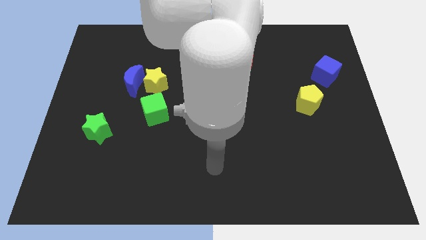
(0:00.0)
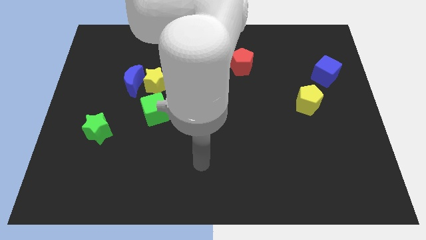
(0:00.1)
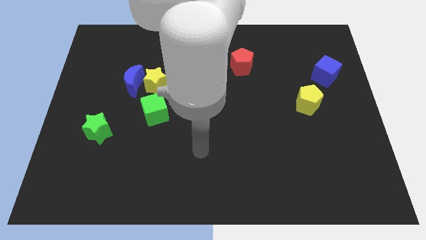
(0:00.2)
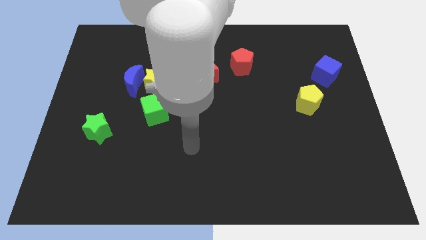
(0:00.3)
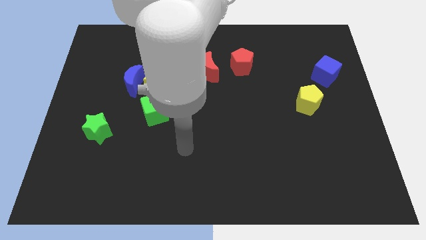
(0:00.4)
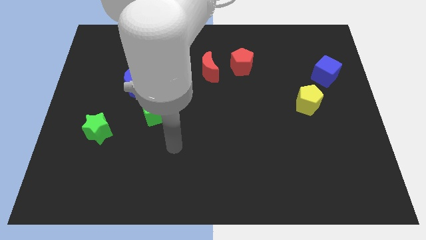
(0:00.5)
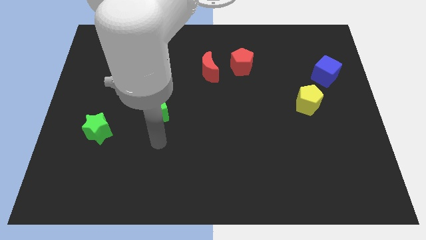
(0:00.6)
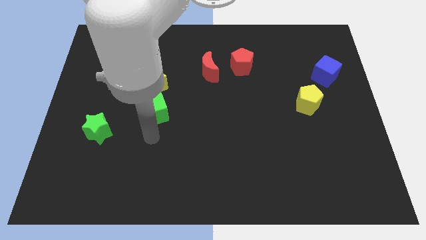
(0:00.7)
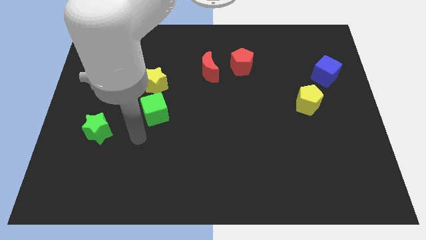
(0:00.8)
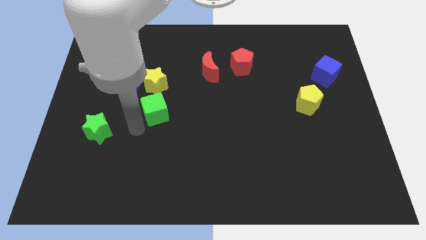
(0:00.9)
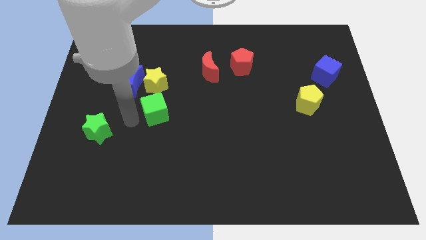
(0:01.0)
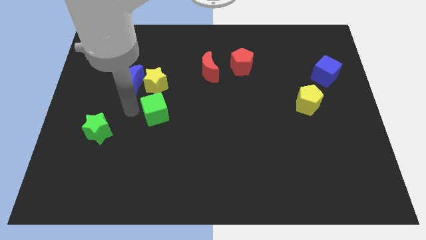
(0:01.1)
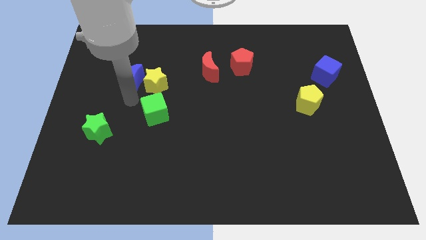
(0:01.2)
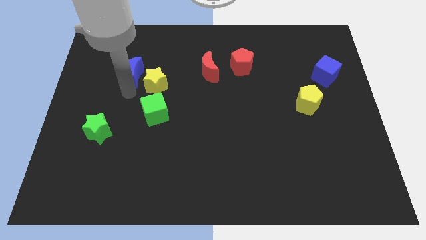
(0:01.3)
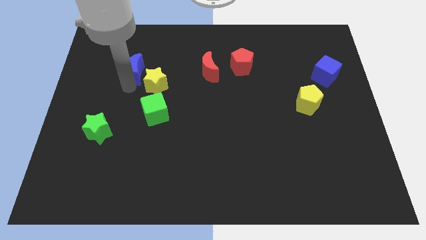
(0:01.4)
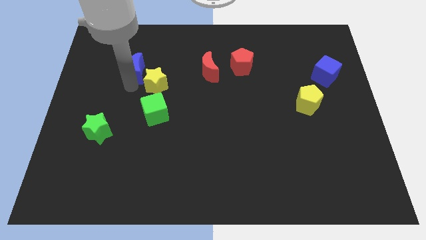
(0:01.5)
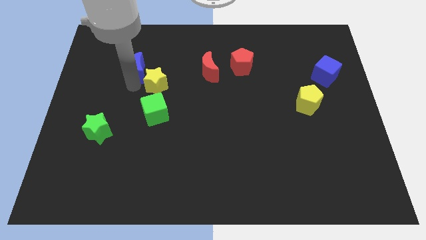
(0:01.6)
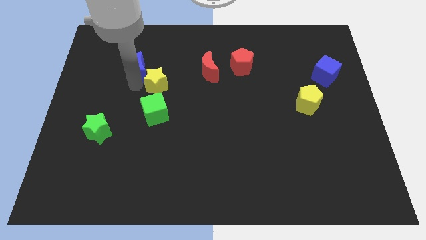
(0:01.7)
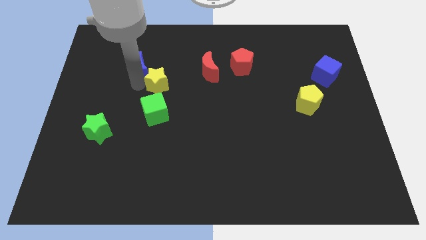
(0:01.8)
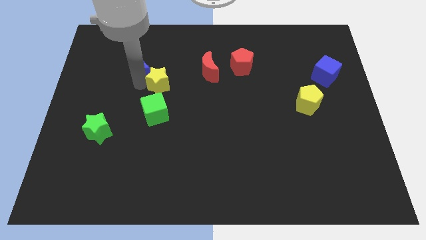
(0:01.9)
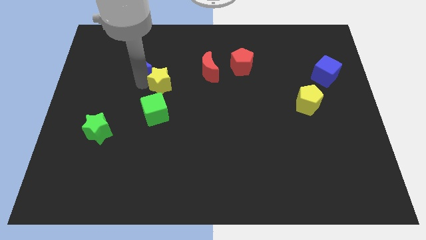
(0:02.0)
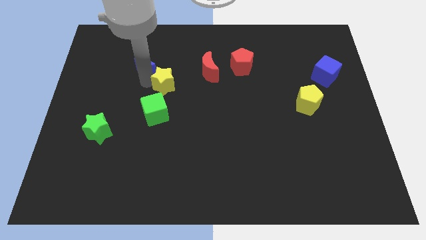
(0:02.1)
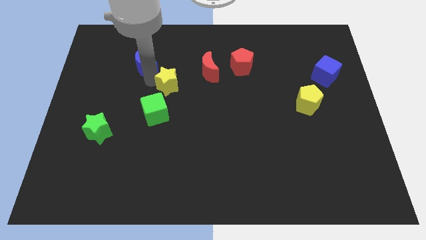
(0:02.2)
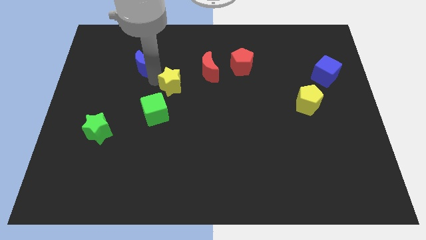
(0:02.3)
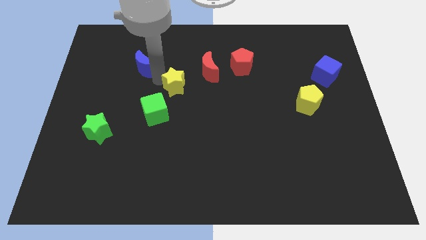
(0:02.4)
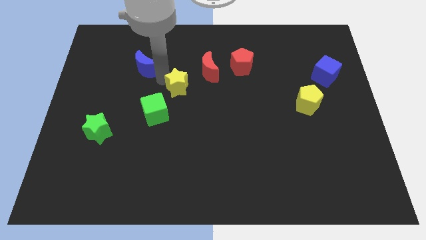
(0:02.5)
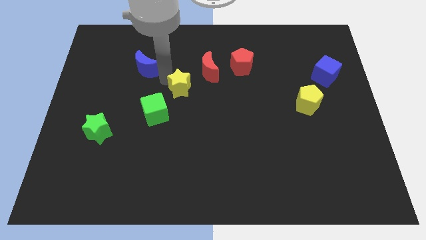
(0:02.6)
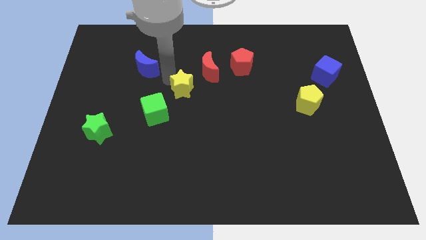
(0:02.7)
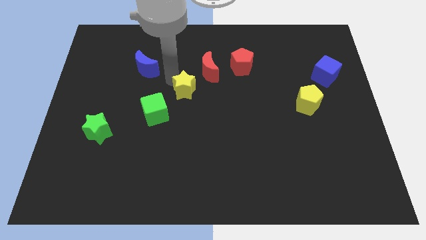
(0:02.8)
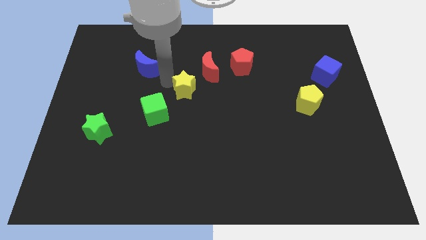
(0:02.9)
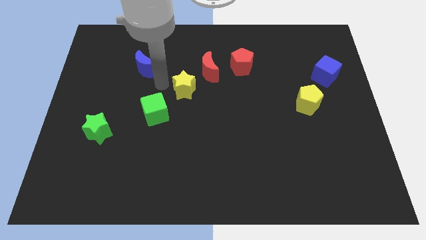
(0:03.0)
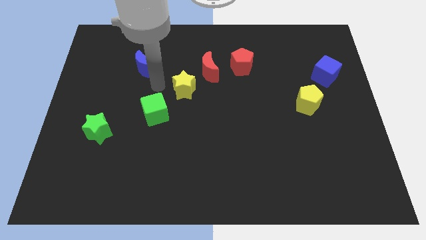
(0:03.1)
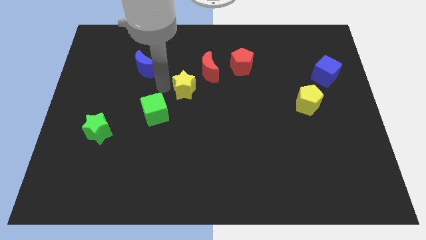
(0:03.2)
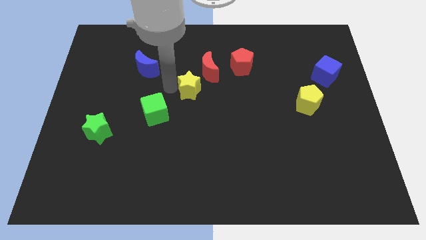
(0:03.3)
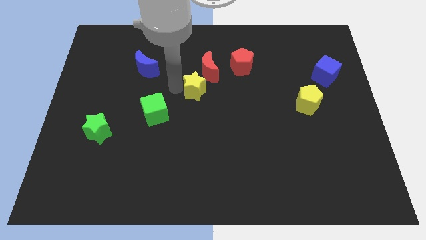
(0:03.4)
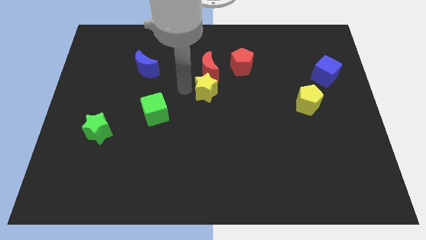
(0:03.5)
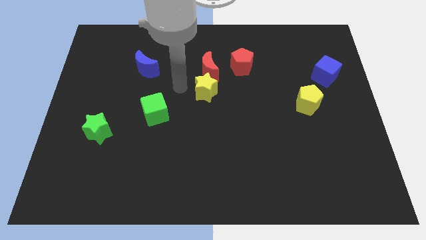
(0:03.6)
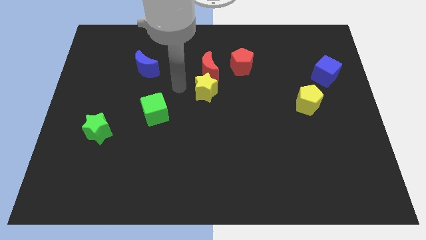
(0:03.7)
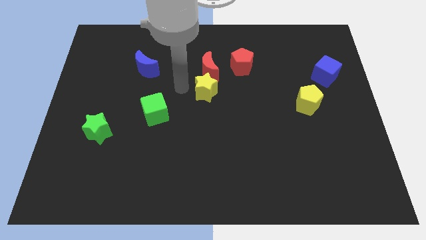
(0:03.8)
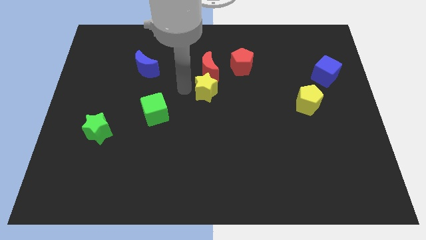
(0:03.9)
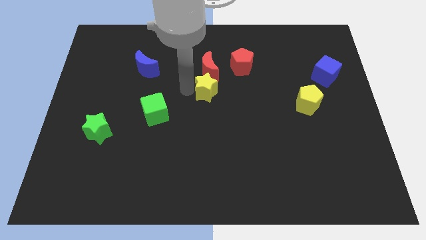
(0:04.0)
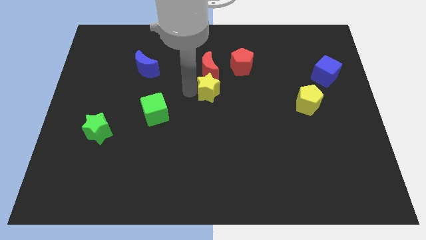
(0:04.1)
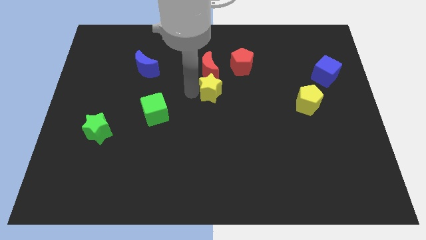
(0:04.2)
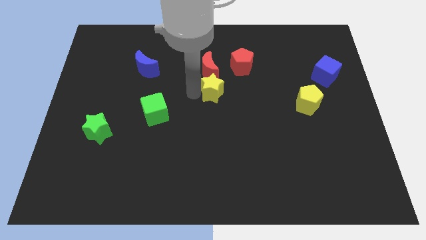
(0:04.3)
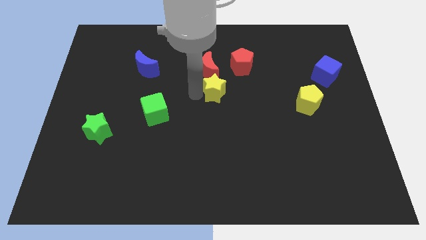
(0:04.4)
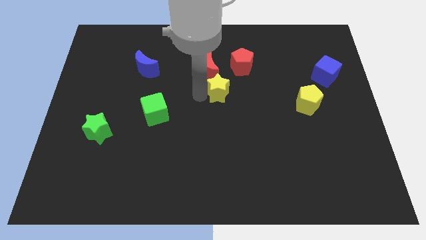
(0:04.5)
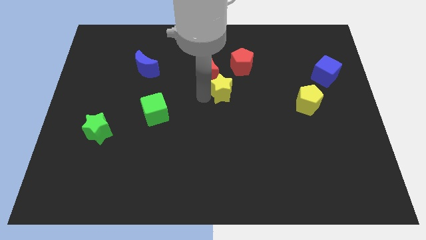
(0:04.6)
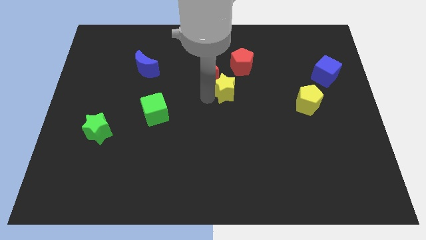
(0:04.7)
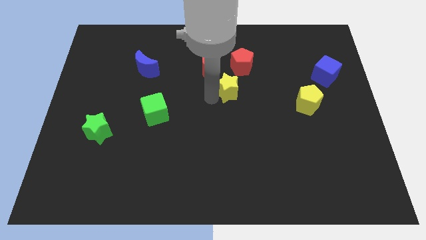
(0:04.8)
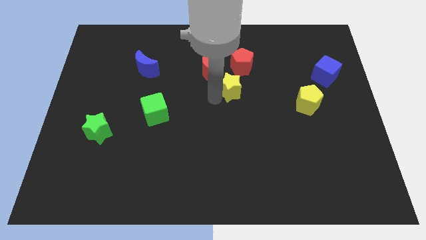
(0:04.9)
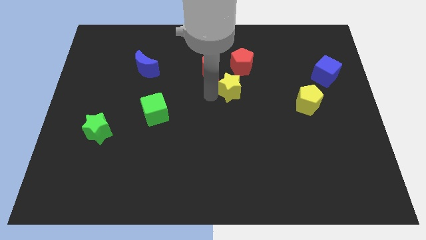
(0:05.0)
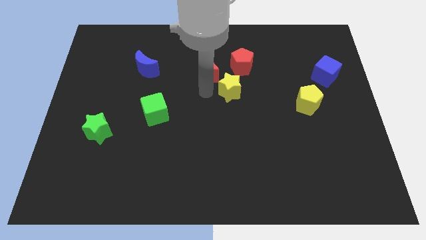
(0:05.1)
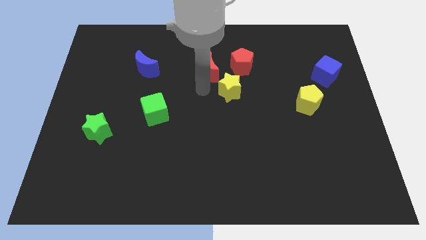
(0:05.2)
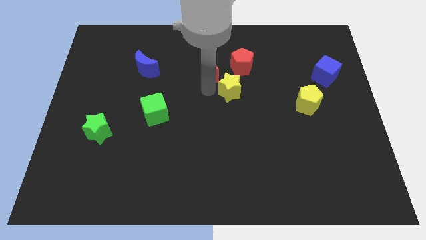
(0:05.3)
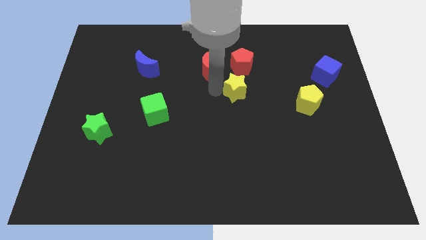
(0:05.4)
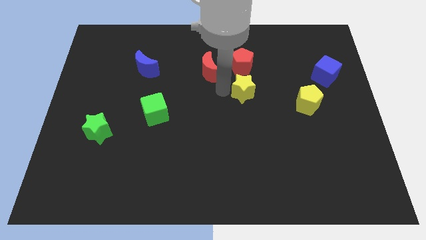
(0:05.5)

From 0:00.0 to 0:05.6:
move the yellow star right

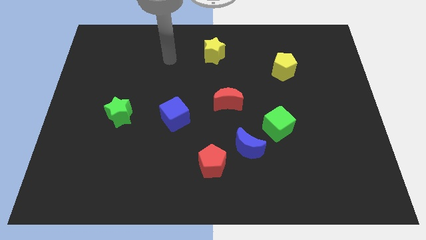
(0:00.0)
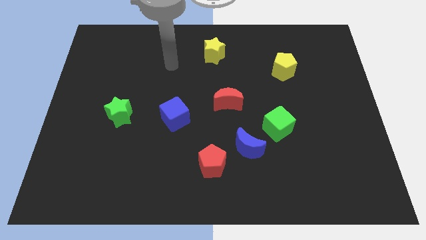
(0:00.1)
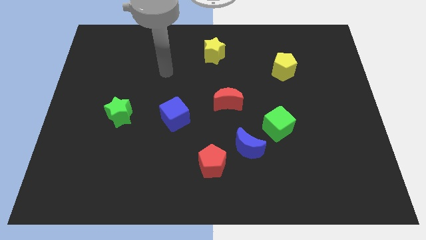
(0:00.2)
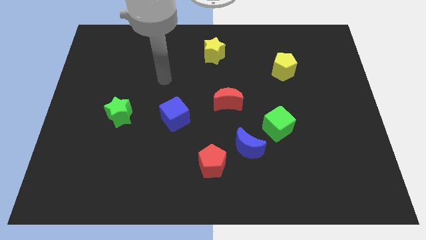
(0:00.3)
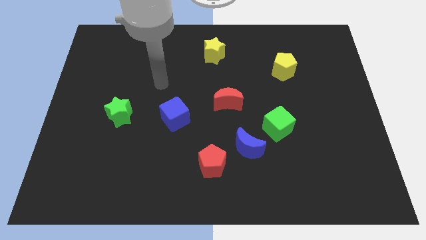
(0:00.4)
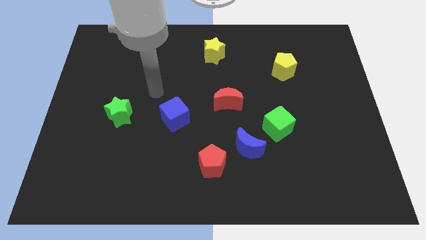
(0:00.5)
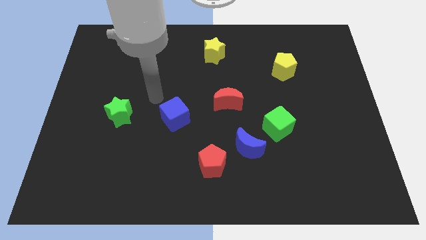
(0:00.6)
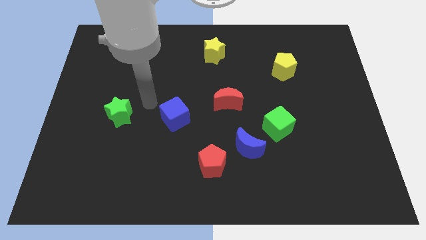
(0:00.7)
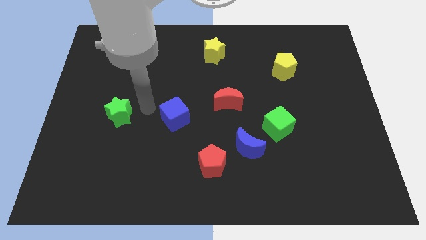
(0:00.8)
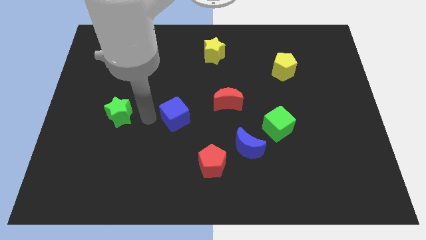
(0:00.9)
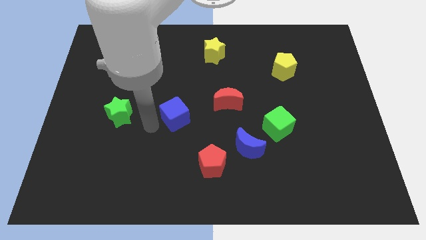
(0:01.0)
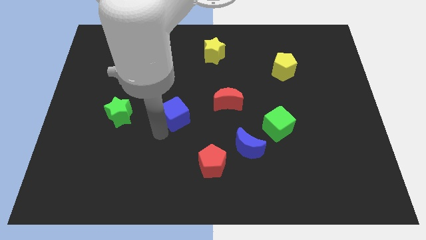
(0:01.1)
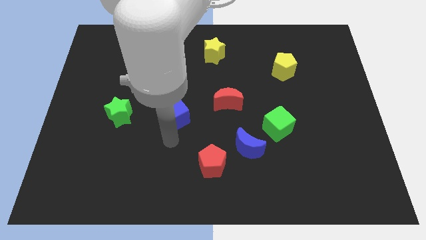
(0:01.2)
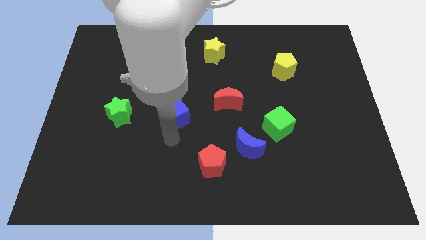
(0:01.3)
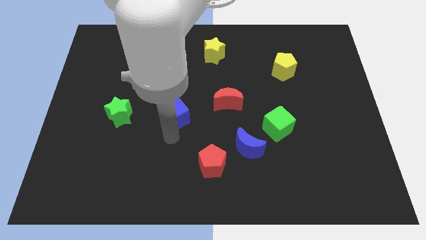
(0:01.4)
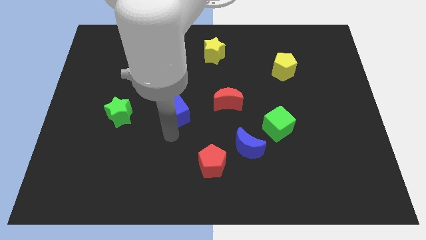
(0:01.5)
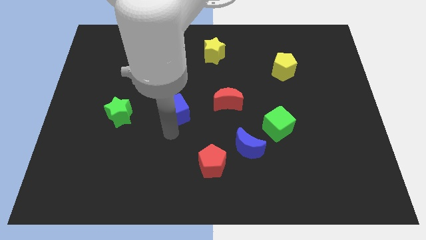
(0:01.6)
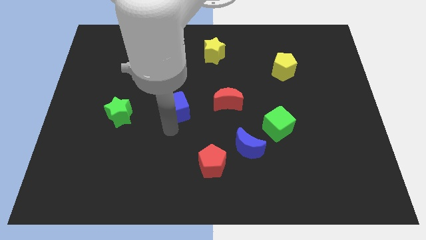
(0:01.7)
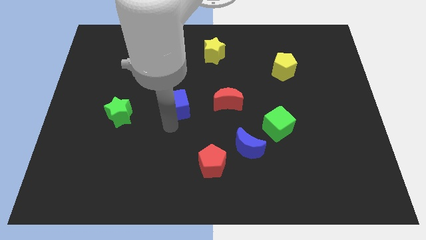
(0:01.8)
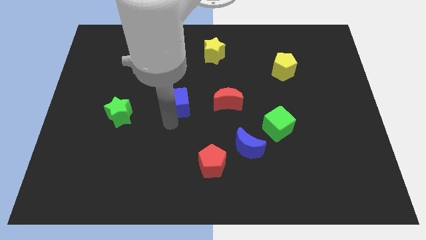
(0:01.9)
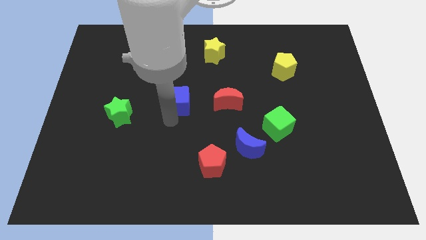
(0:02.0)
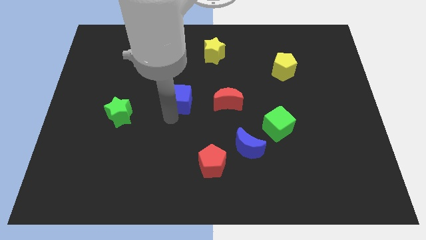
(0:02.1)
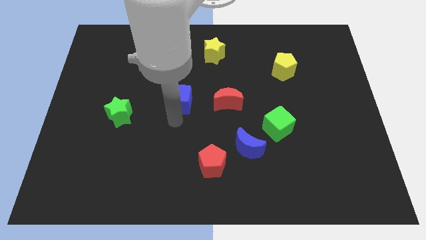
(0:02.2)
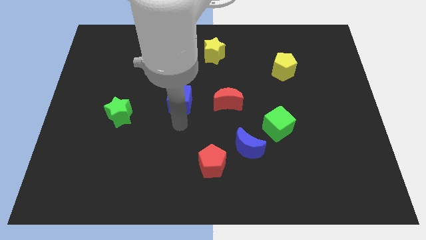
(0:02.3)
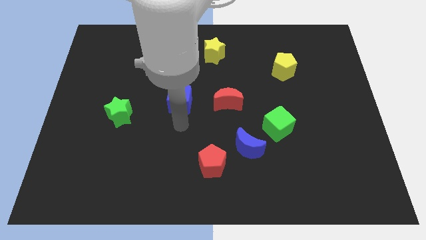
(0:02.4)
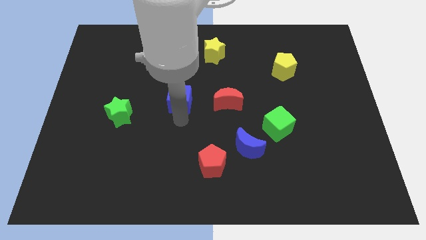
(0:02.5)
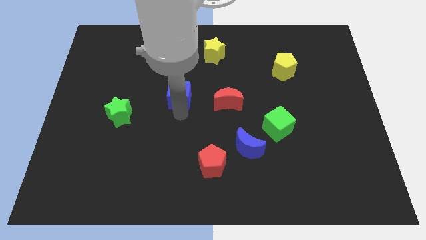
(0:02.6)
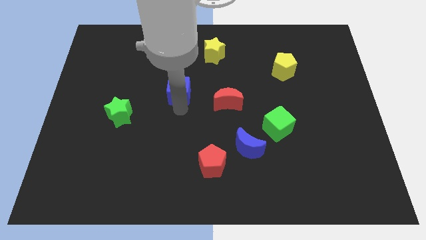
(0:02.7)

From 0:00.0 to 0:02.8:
slide the blue cube slightly upwards
